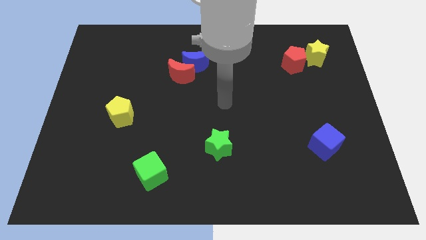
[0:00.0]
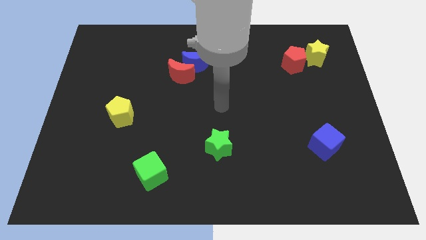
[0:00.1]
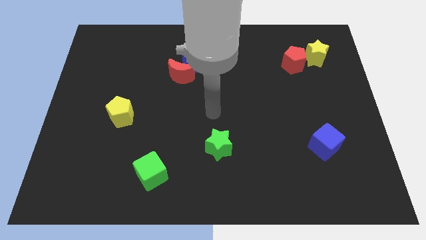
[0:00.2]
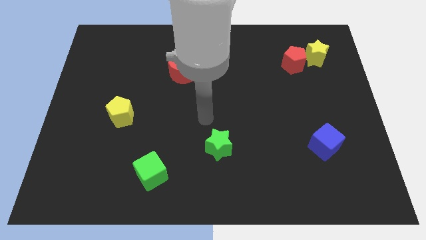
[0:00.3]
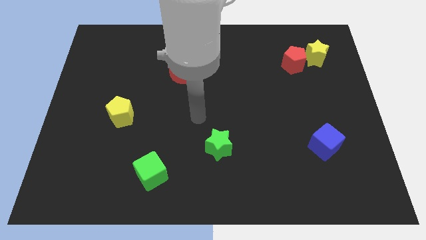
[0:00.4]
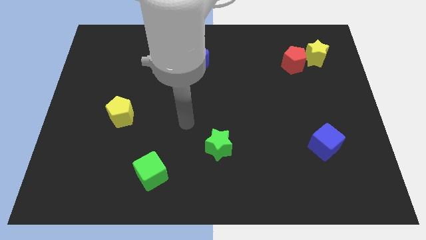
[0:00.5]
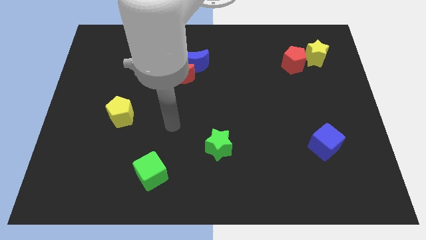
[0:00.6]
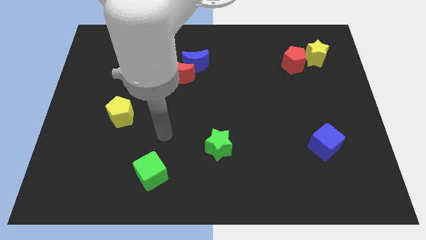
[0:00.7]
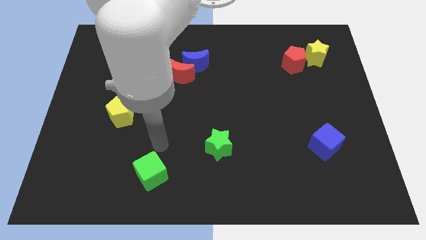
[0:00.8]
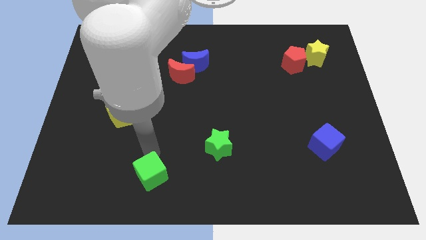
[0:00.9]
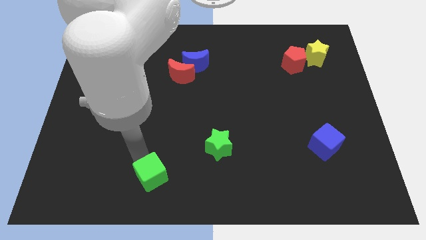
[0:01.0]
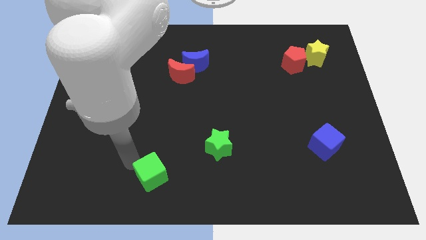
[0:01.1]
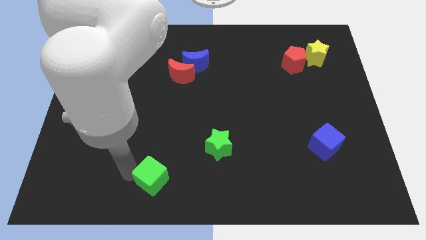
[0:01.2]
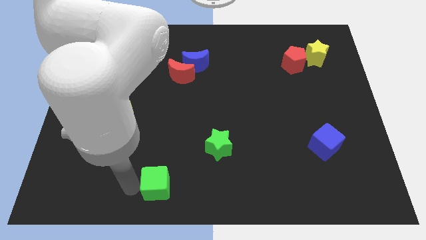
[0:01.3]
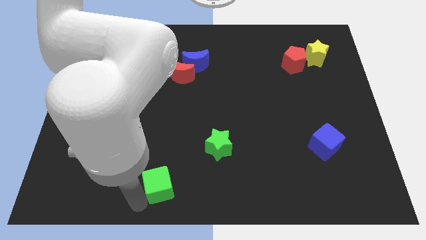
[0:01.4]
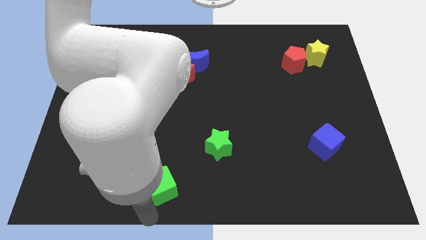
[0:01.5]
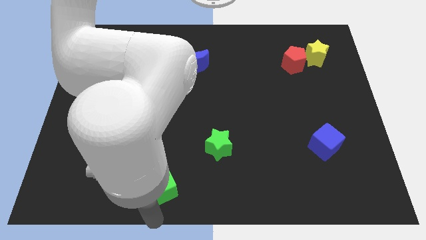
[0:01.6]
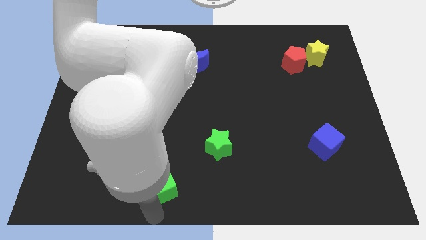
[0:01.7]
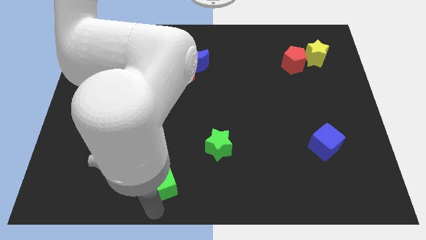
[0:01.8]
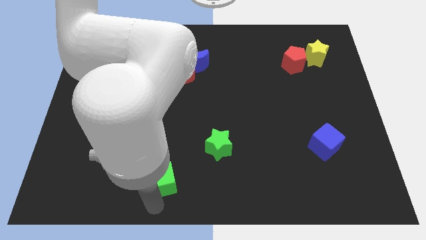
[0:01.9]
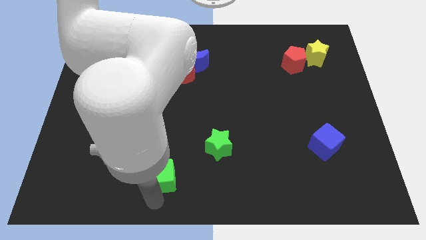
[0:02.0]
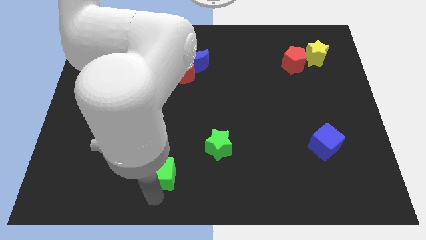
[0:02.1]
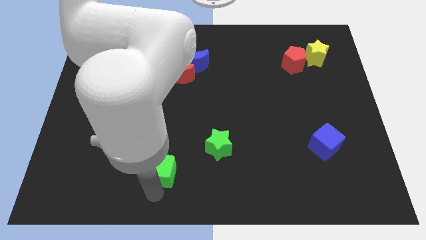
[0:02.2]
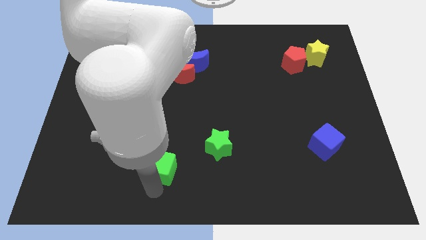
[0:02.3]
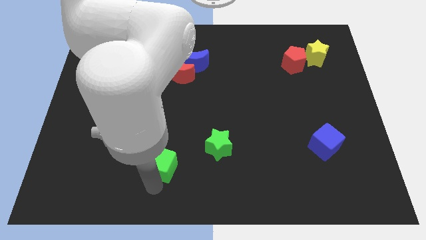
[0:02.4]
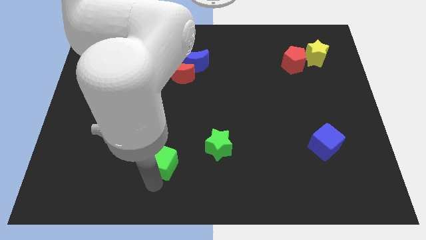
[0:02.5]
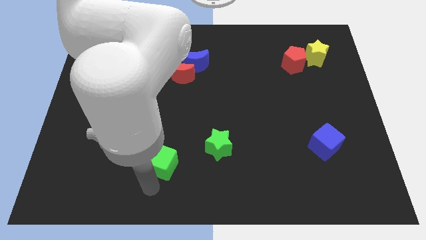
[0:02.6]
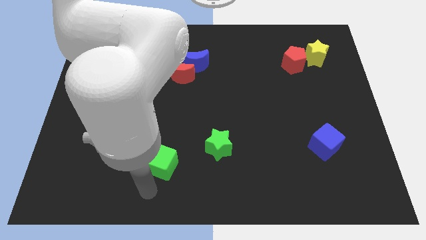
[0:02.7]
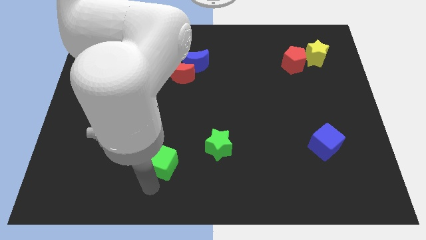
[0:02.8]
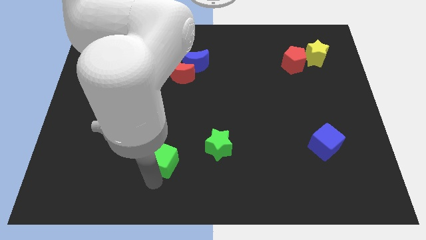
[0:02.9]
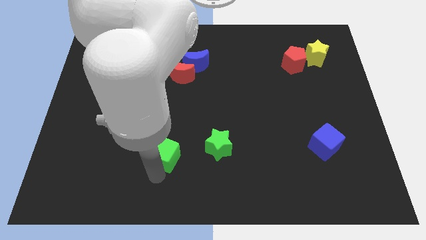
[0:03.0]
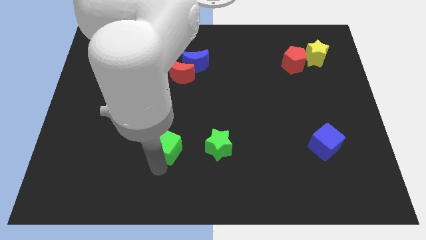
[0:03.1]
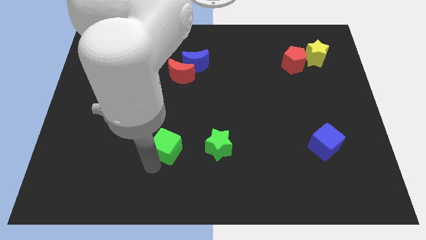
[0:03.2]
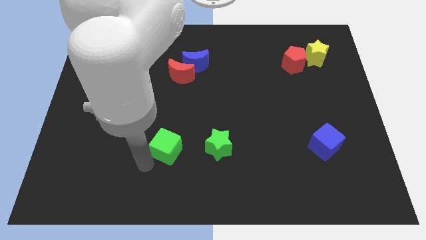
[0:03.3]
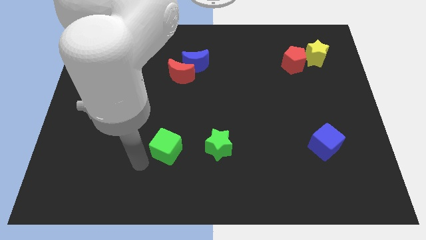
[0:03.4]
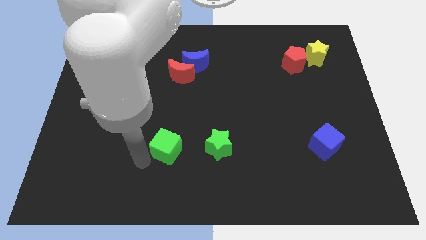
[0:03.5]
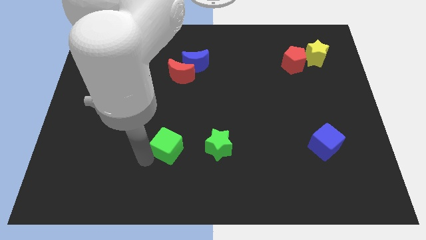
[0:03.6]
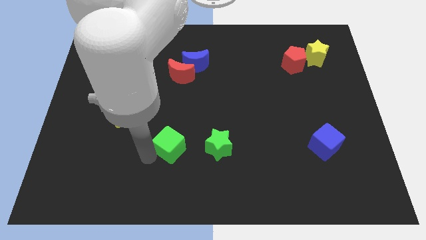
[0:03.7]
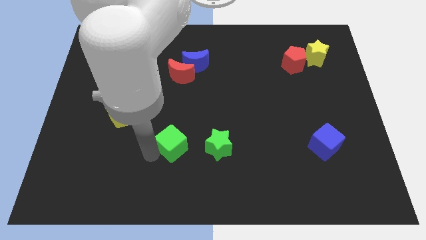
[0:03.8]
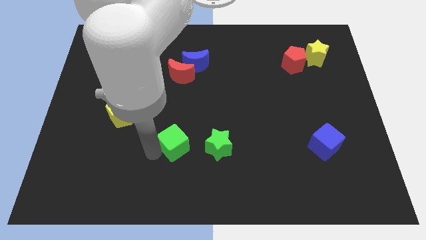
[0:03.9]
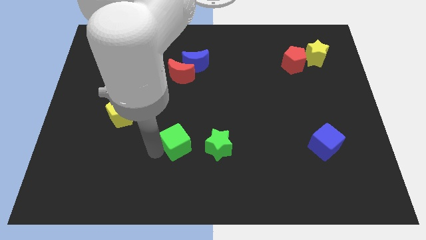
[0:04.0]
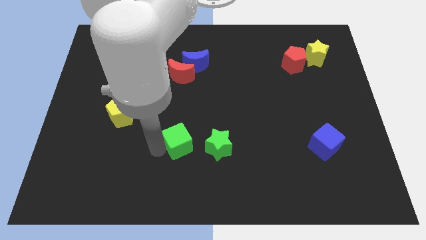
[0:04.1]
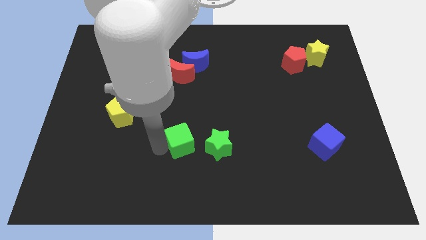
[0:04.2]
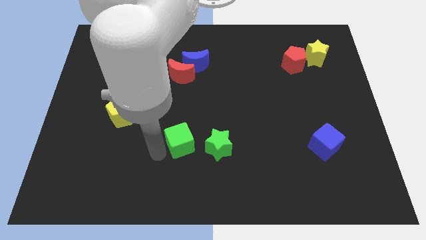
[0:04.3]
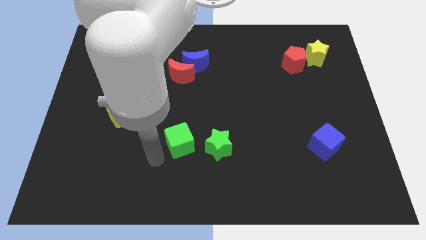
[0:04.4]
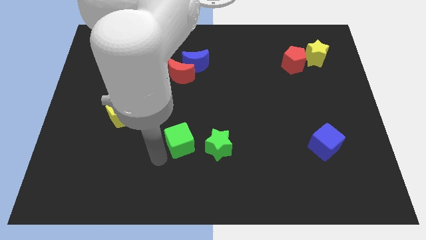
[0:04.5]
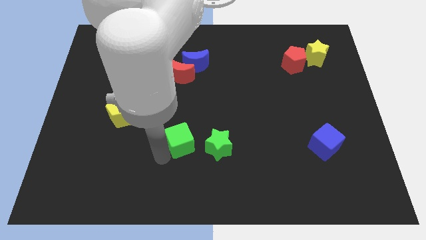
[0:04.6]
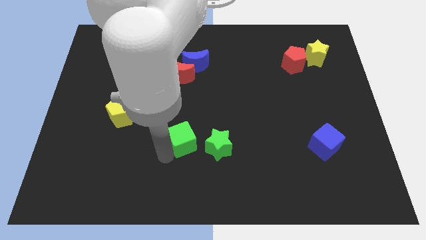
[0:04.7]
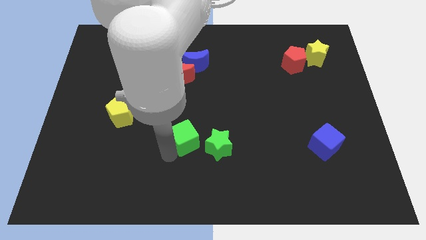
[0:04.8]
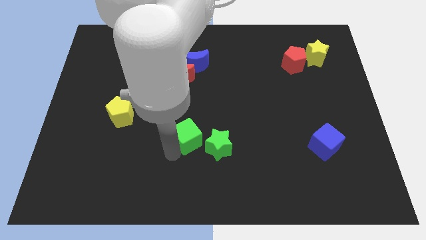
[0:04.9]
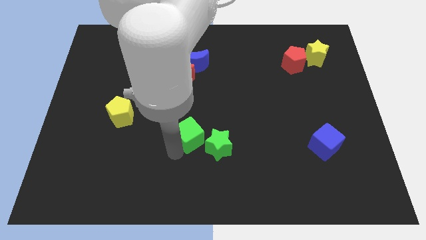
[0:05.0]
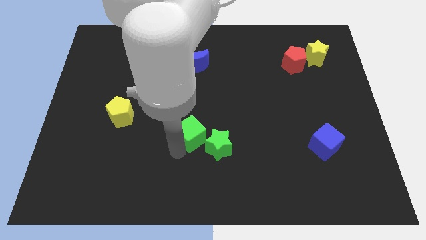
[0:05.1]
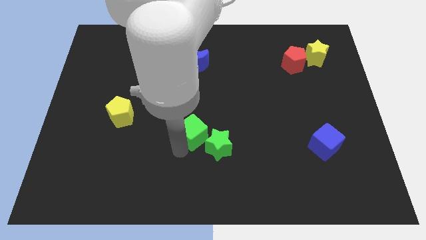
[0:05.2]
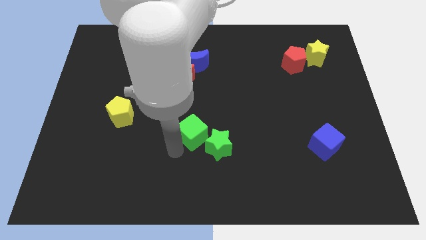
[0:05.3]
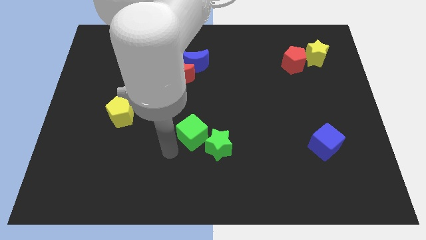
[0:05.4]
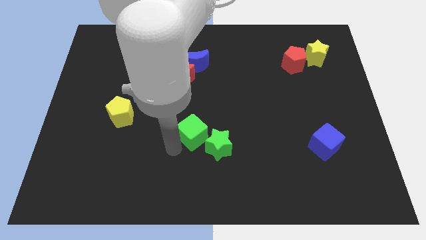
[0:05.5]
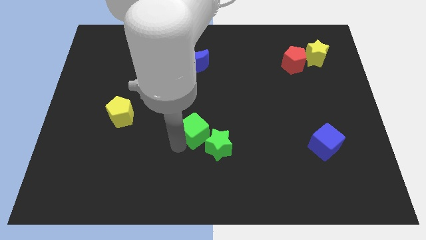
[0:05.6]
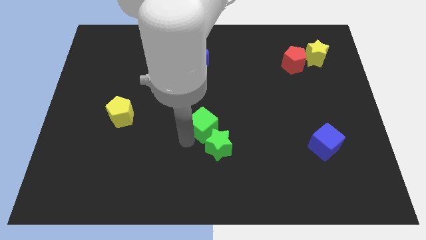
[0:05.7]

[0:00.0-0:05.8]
put the green cube above the green star

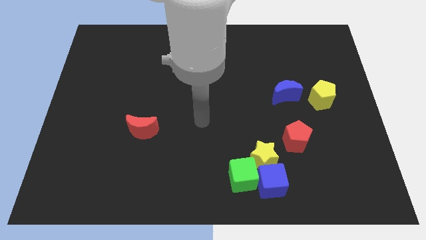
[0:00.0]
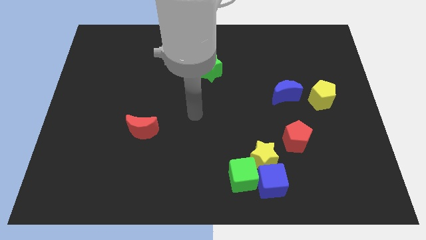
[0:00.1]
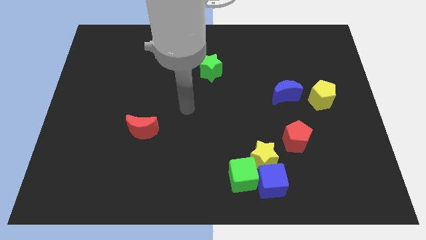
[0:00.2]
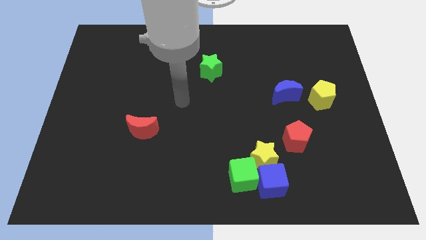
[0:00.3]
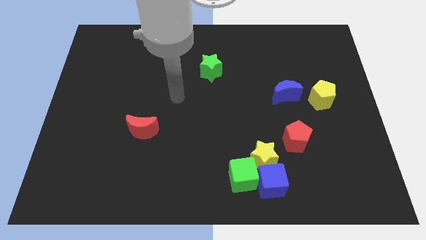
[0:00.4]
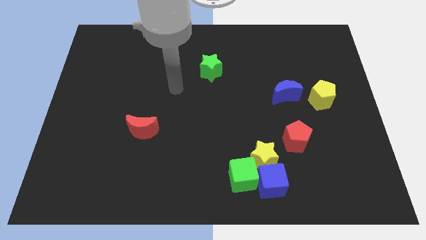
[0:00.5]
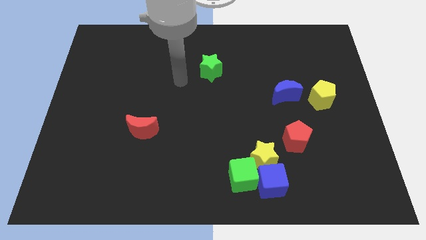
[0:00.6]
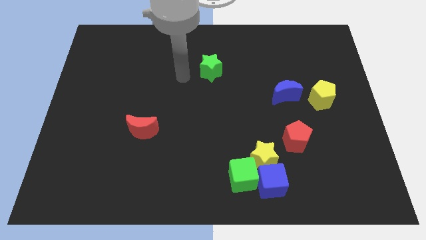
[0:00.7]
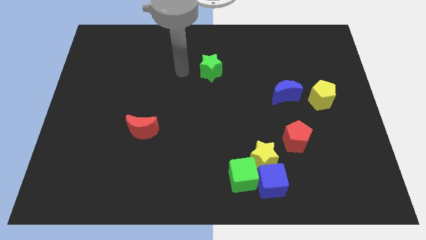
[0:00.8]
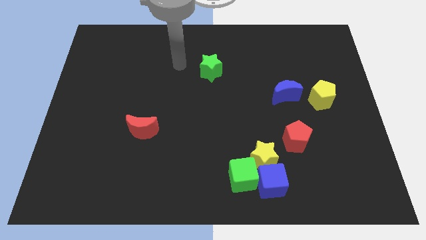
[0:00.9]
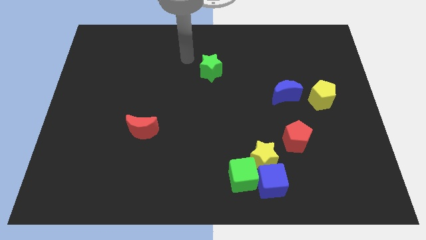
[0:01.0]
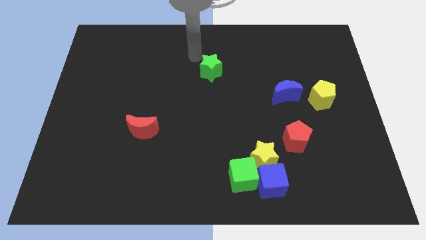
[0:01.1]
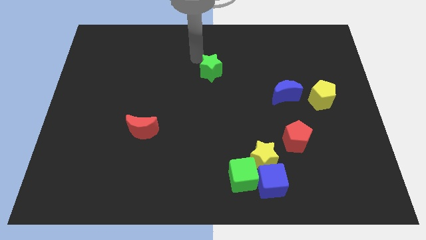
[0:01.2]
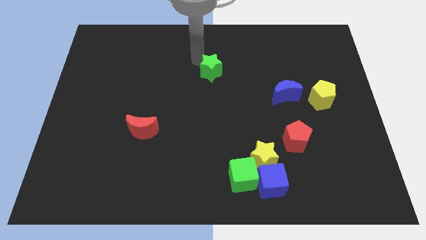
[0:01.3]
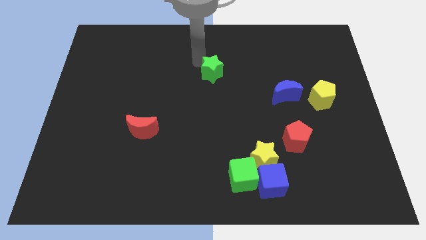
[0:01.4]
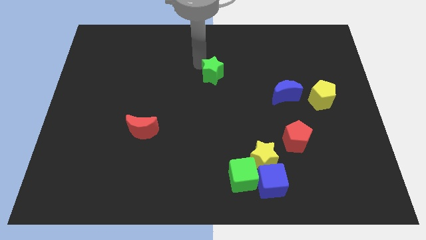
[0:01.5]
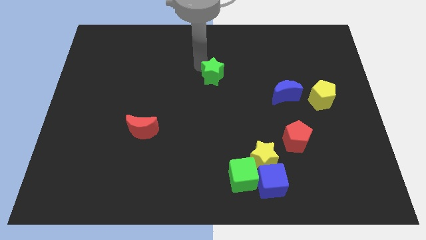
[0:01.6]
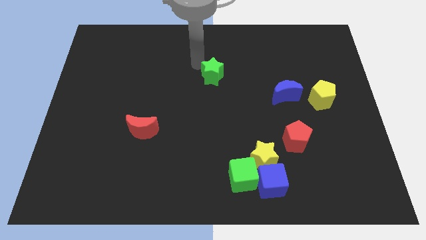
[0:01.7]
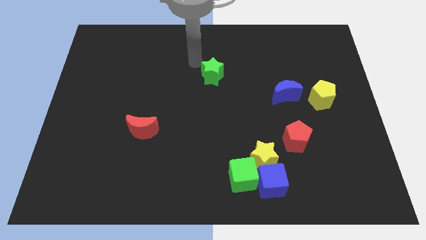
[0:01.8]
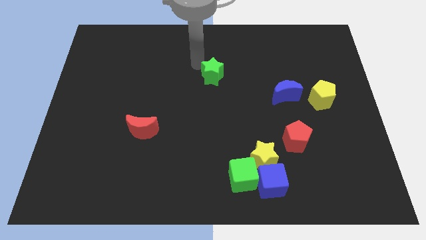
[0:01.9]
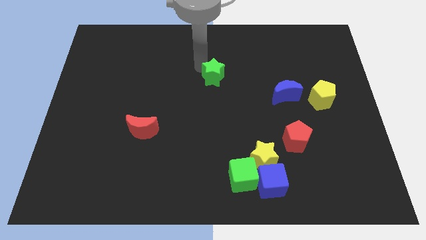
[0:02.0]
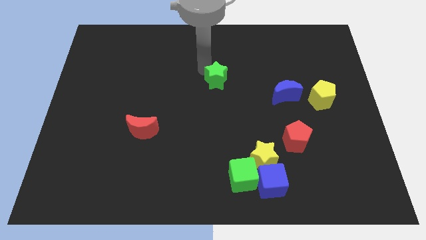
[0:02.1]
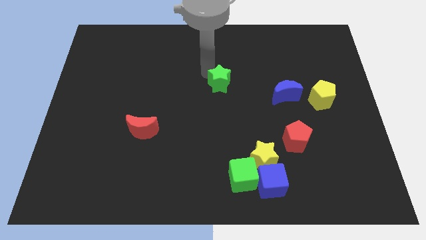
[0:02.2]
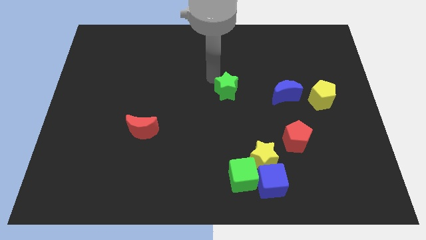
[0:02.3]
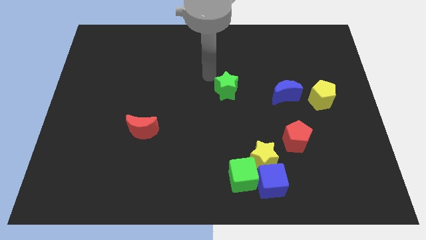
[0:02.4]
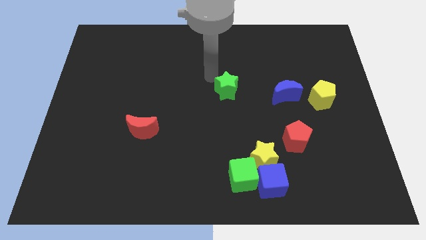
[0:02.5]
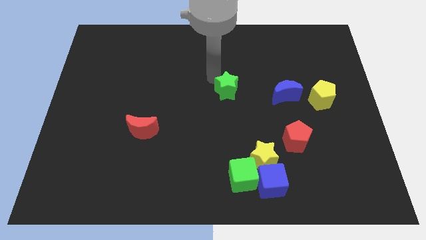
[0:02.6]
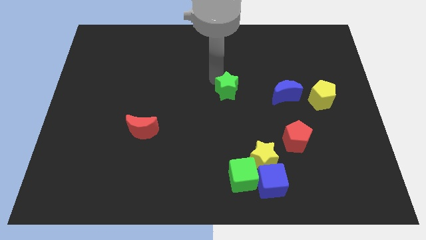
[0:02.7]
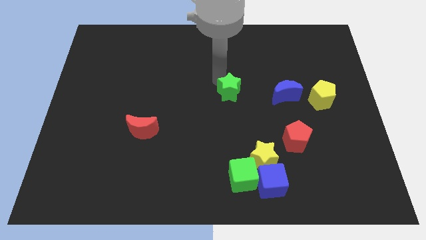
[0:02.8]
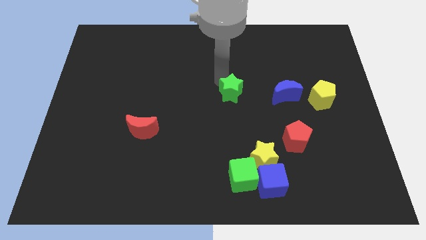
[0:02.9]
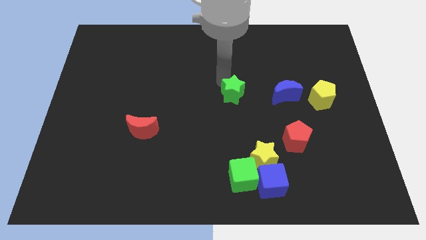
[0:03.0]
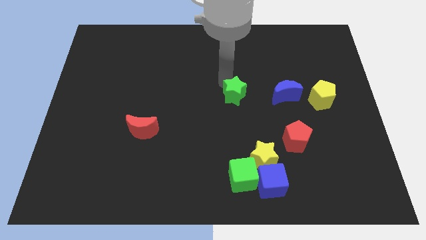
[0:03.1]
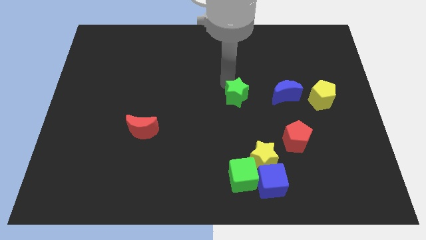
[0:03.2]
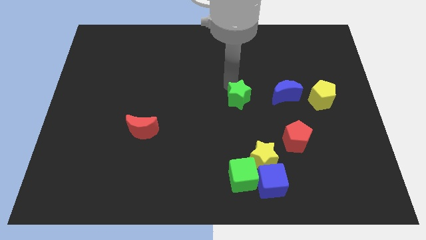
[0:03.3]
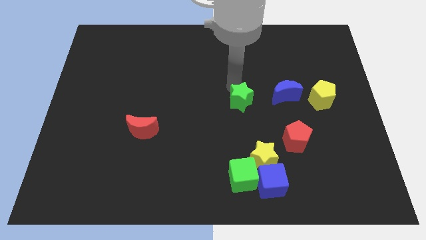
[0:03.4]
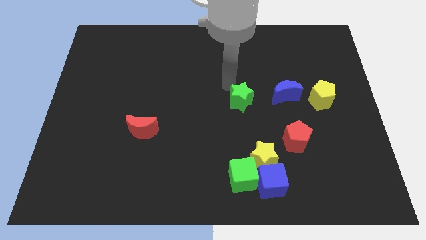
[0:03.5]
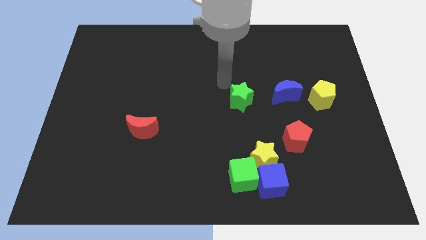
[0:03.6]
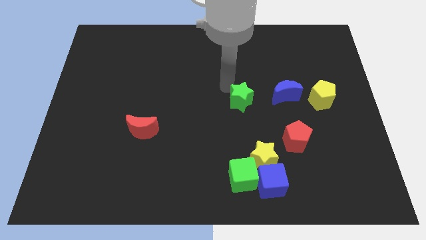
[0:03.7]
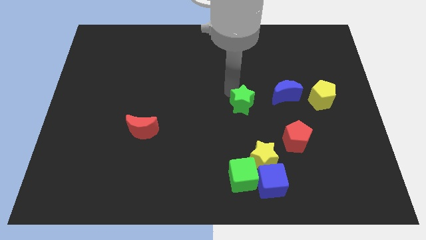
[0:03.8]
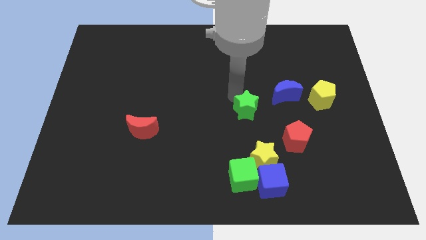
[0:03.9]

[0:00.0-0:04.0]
push the green star to the top of the yellow star
